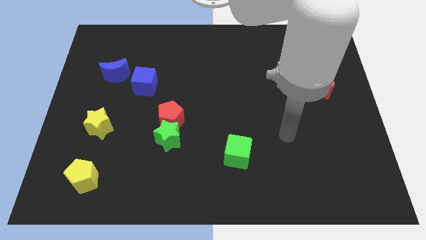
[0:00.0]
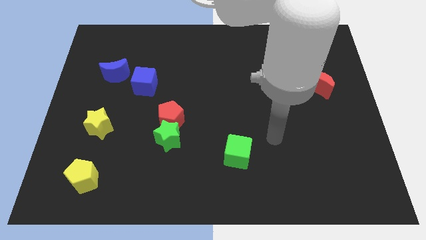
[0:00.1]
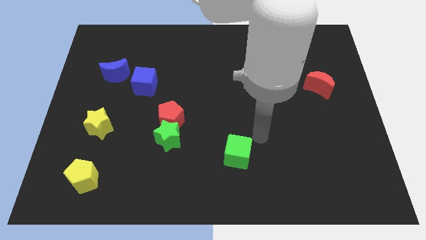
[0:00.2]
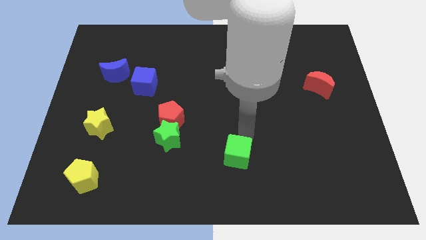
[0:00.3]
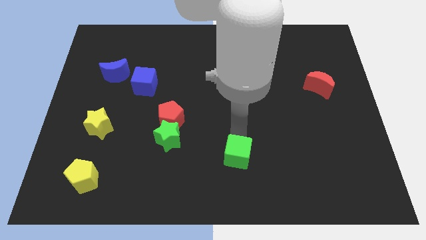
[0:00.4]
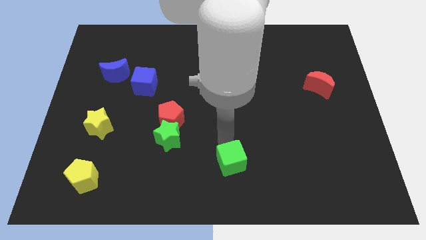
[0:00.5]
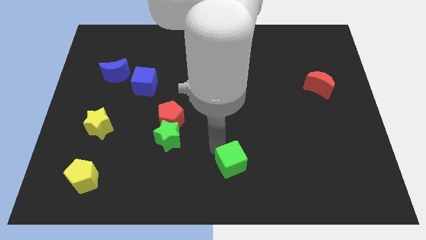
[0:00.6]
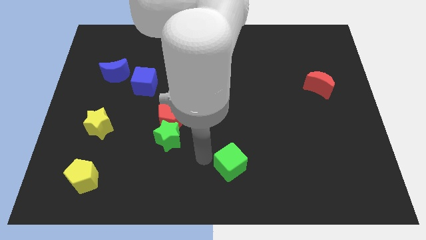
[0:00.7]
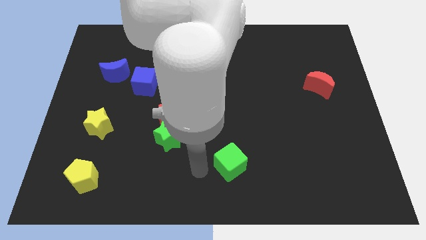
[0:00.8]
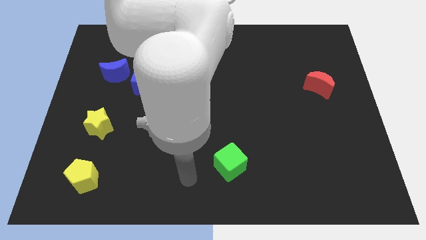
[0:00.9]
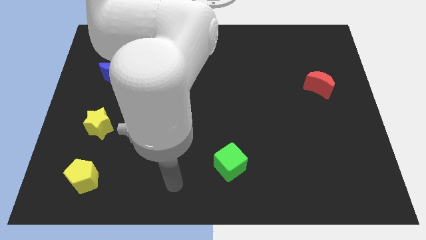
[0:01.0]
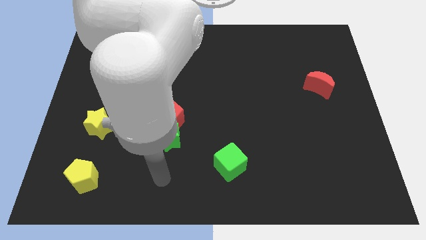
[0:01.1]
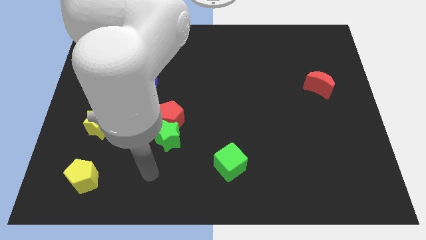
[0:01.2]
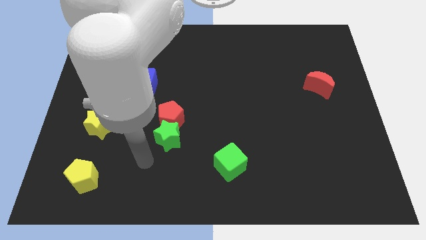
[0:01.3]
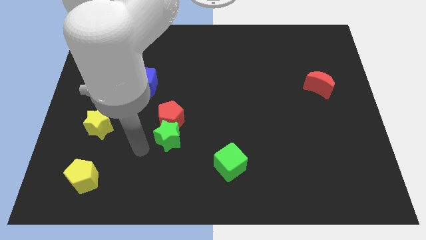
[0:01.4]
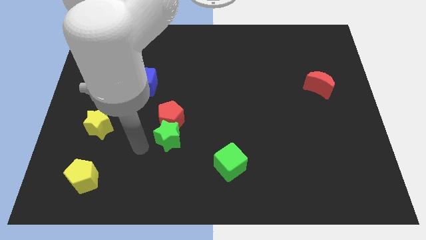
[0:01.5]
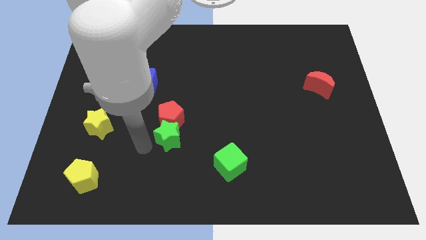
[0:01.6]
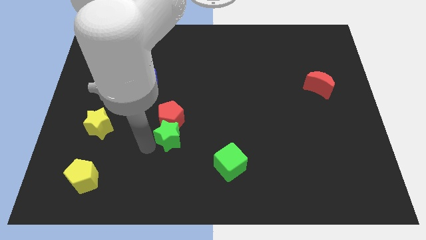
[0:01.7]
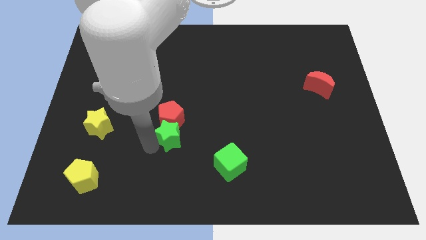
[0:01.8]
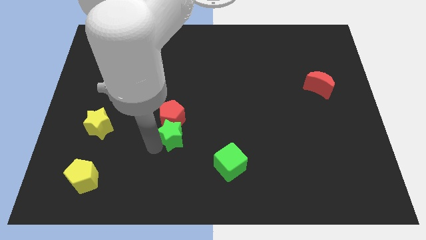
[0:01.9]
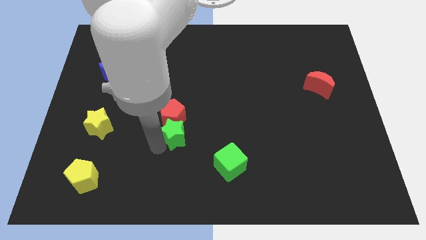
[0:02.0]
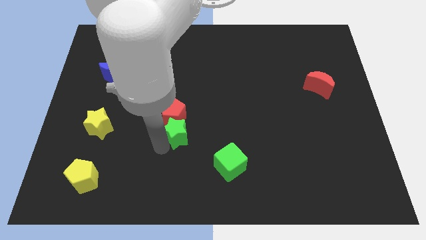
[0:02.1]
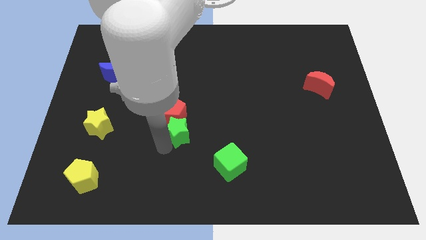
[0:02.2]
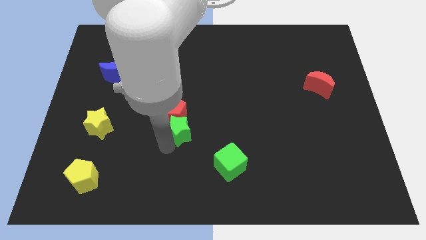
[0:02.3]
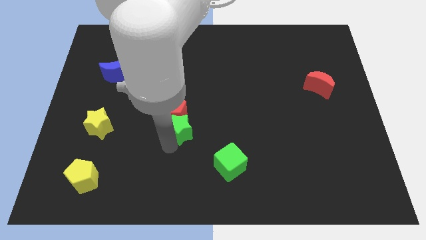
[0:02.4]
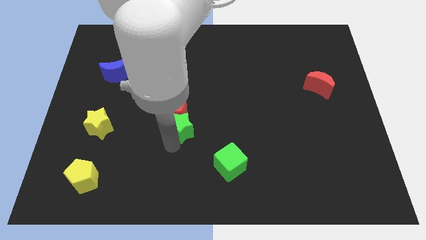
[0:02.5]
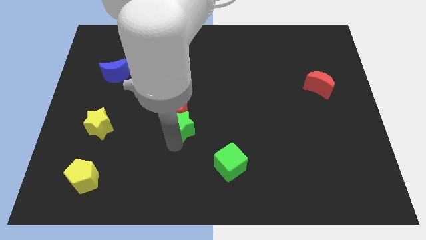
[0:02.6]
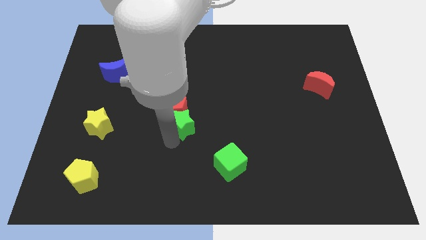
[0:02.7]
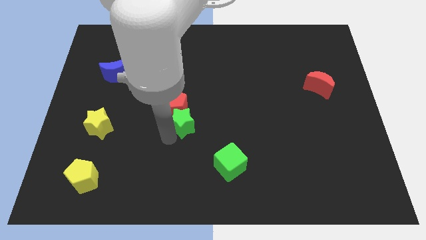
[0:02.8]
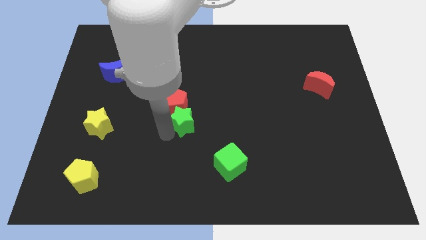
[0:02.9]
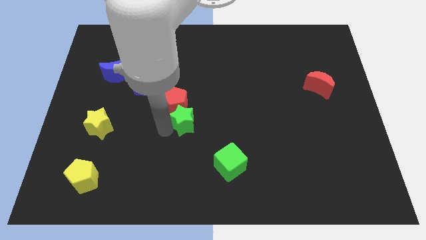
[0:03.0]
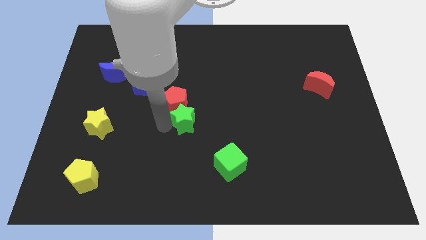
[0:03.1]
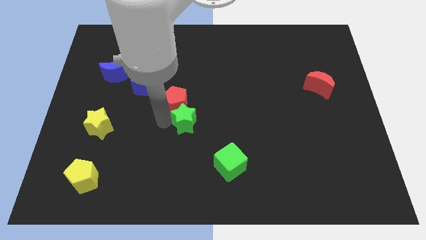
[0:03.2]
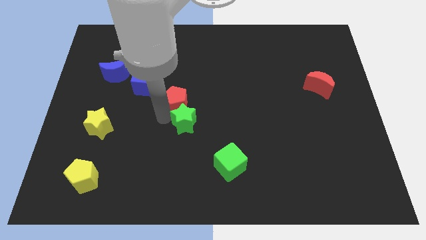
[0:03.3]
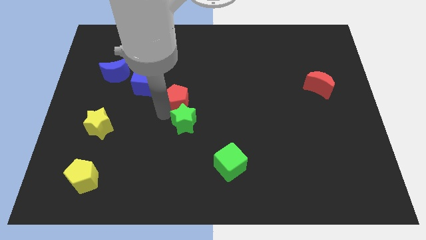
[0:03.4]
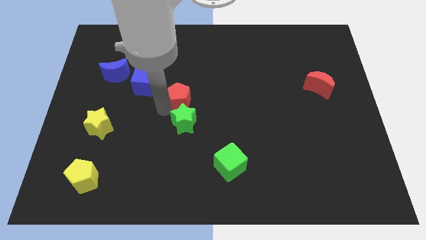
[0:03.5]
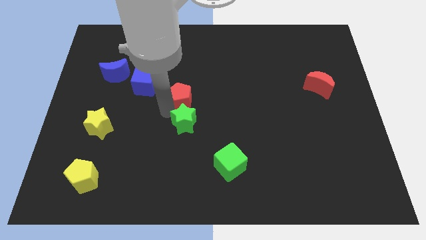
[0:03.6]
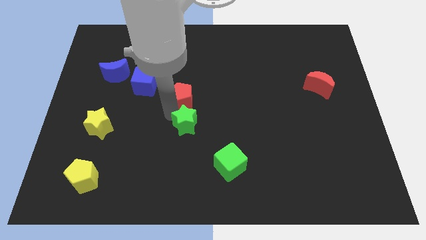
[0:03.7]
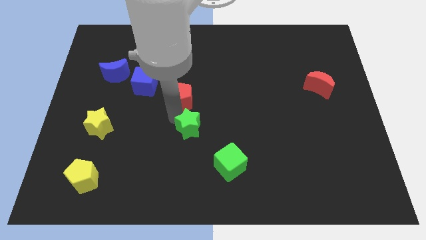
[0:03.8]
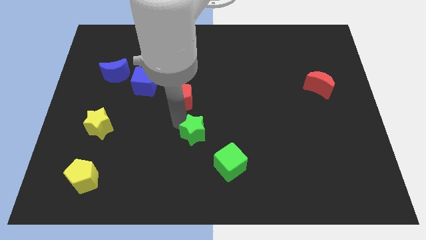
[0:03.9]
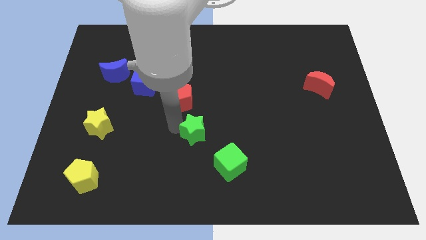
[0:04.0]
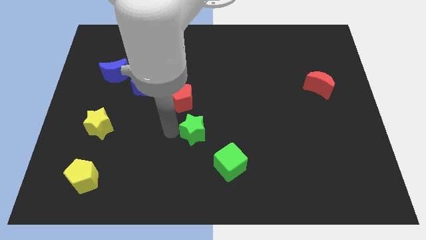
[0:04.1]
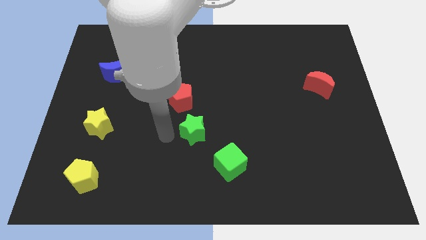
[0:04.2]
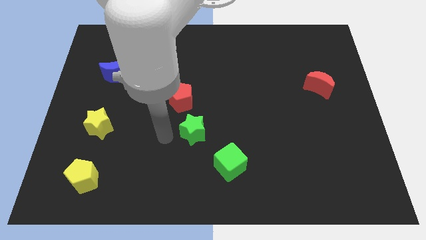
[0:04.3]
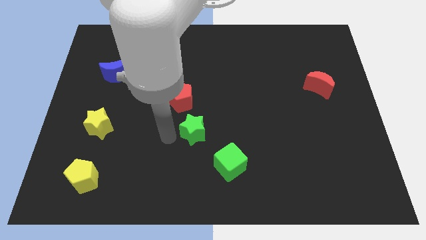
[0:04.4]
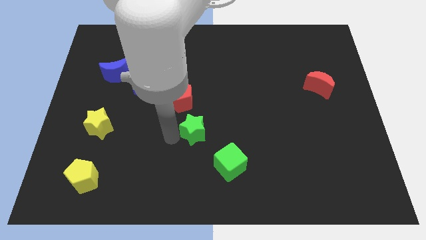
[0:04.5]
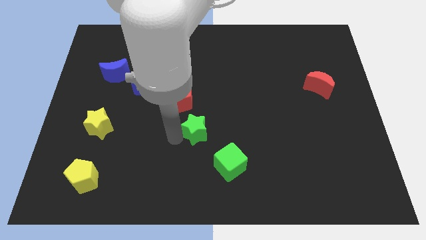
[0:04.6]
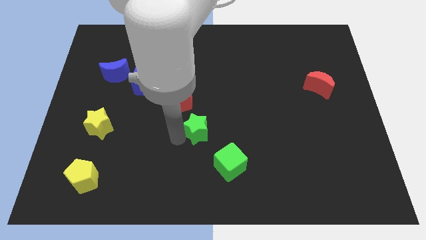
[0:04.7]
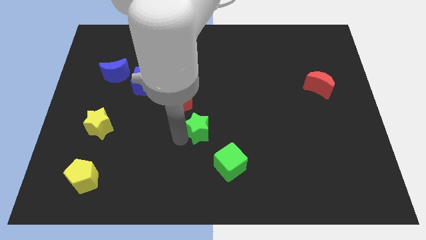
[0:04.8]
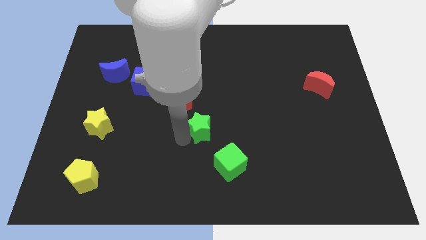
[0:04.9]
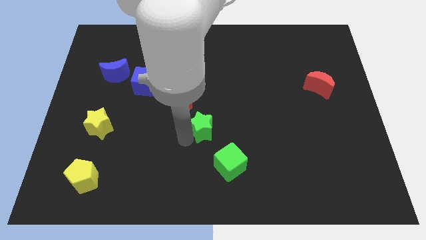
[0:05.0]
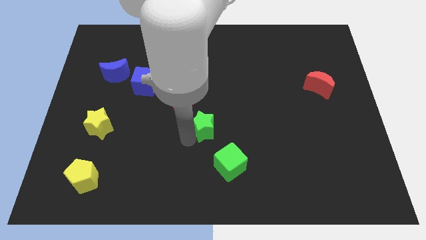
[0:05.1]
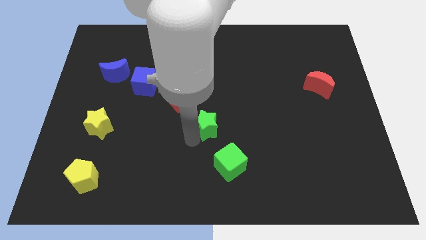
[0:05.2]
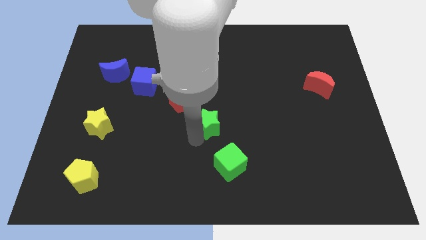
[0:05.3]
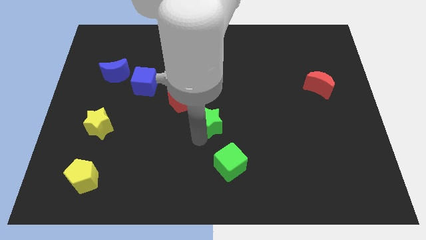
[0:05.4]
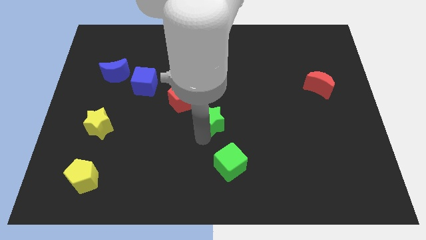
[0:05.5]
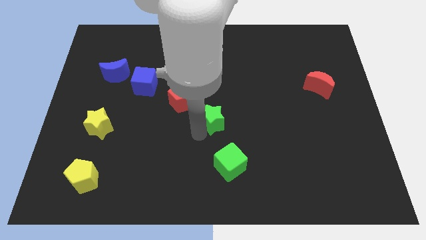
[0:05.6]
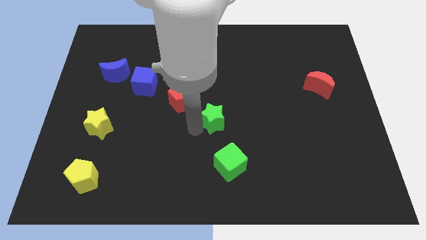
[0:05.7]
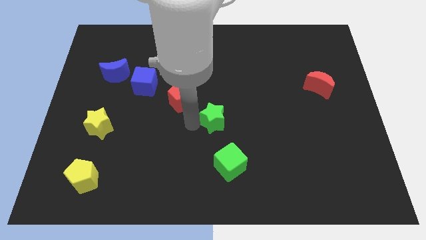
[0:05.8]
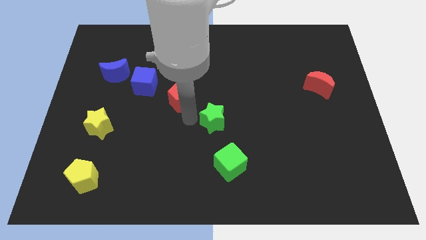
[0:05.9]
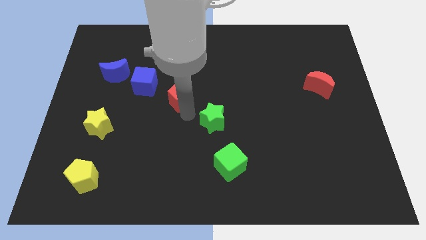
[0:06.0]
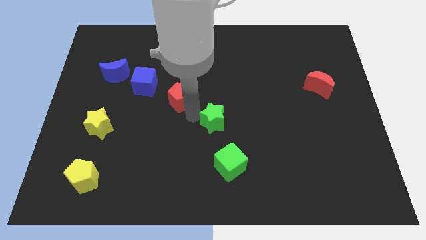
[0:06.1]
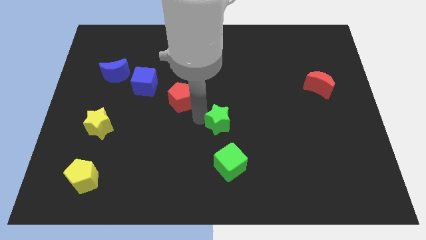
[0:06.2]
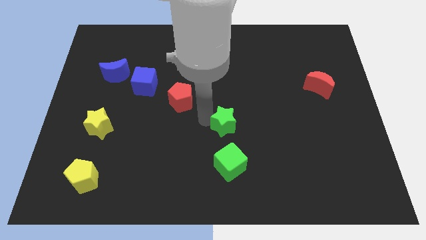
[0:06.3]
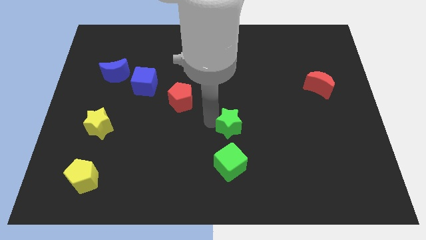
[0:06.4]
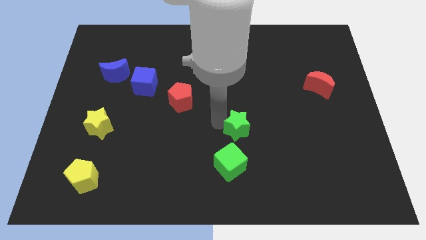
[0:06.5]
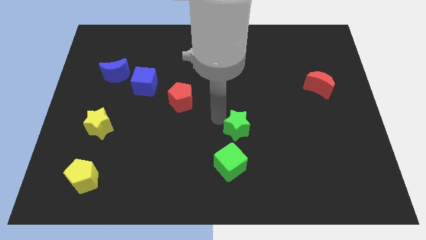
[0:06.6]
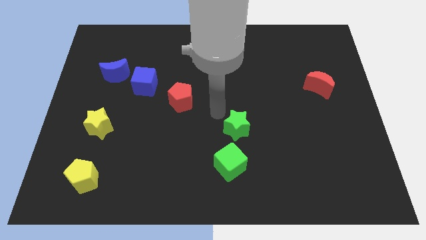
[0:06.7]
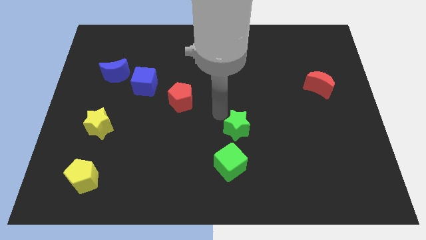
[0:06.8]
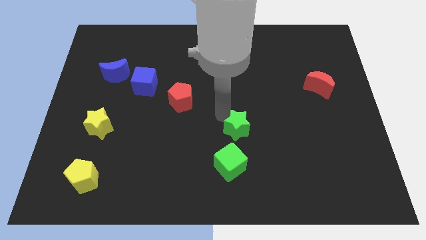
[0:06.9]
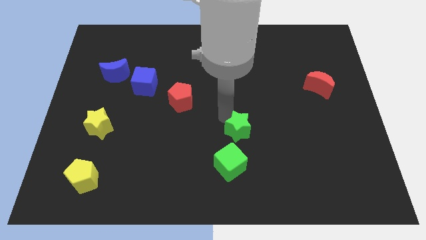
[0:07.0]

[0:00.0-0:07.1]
push the green star diagonally up and to the right of the green cube

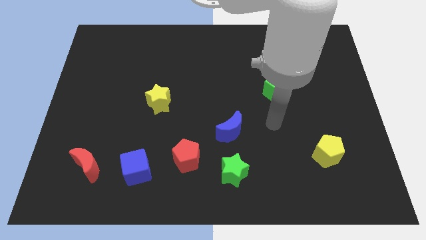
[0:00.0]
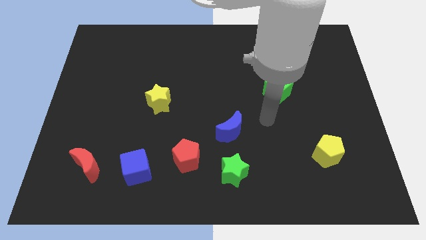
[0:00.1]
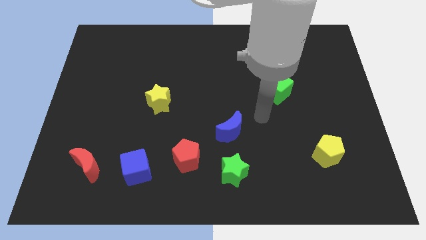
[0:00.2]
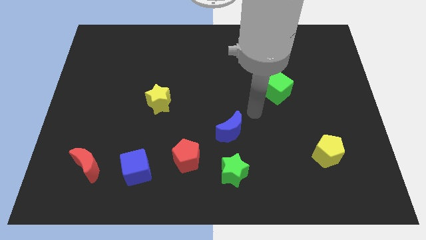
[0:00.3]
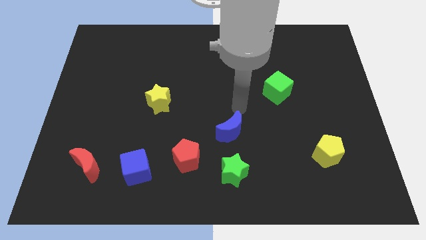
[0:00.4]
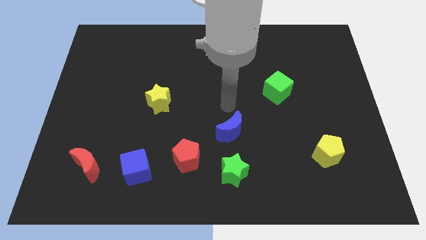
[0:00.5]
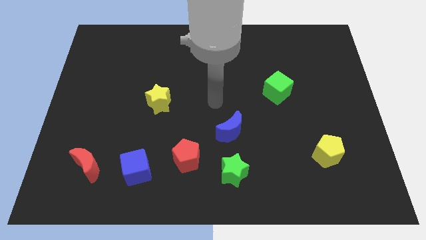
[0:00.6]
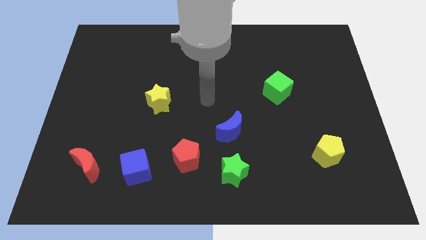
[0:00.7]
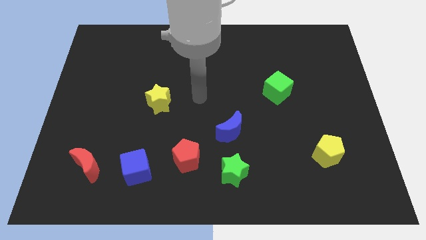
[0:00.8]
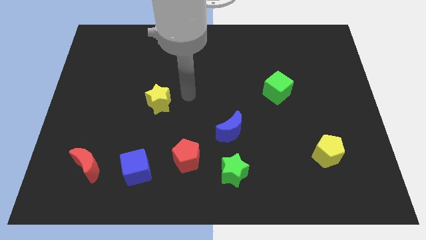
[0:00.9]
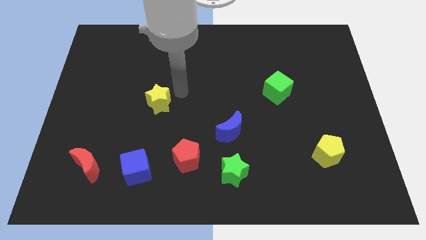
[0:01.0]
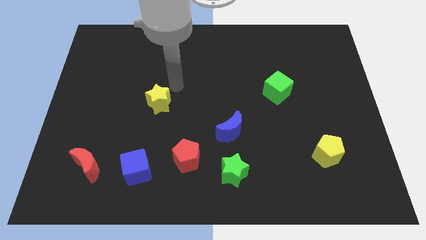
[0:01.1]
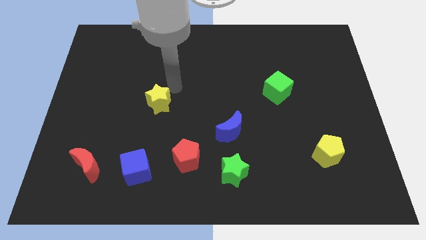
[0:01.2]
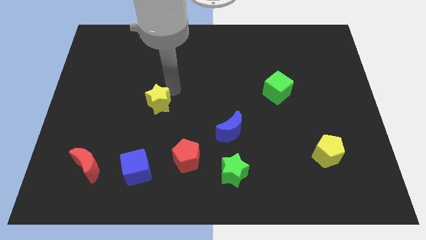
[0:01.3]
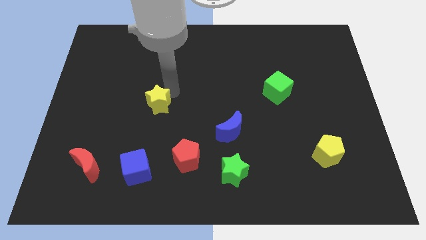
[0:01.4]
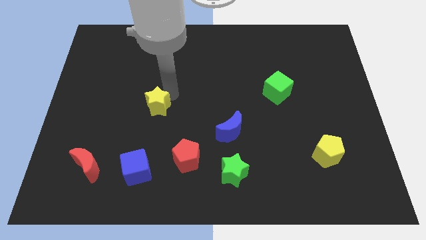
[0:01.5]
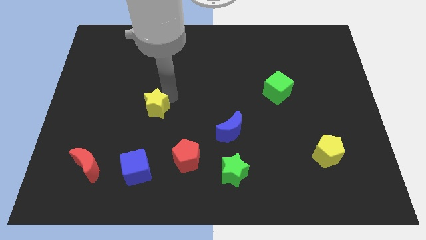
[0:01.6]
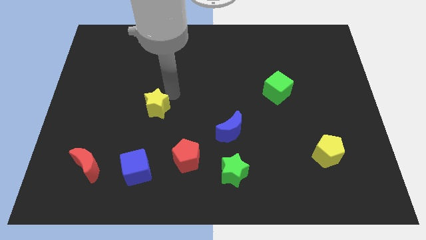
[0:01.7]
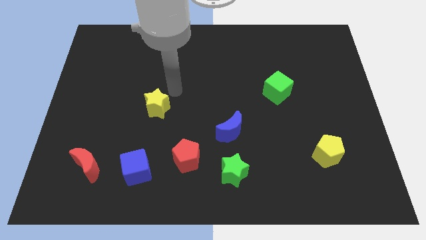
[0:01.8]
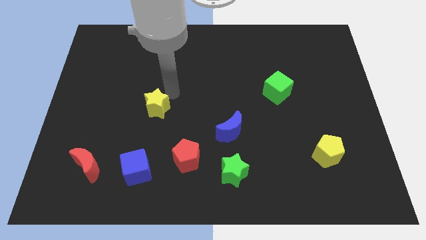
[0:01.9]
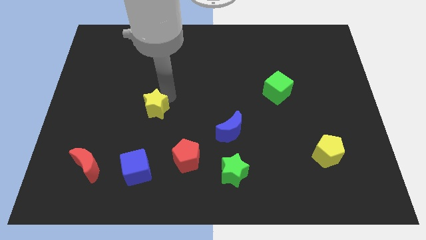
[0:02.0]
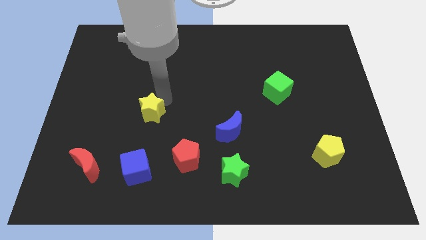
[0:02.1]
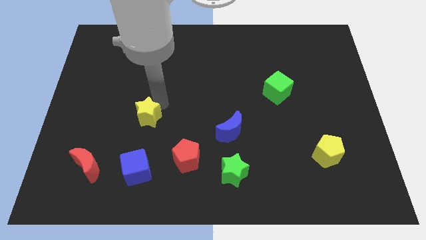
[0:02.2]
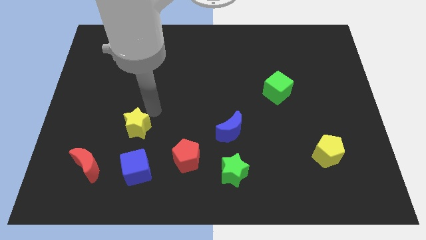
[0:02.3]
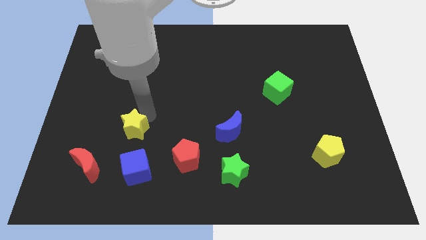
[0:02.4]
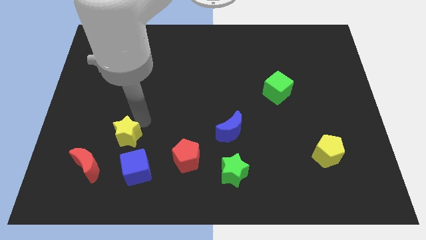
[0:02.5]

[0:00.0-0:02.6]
move the yellow star to the top left side of the blue cube
